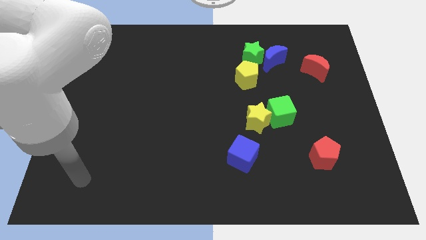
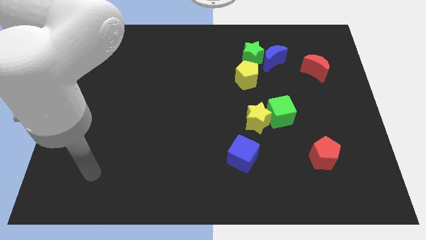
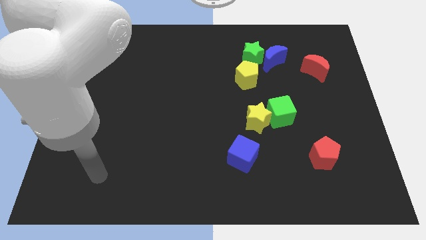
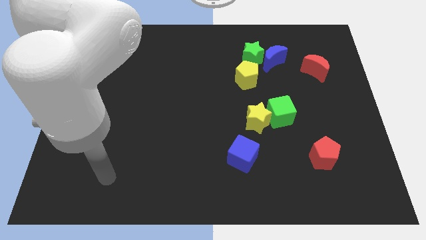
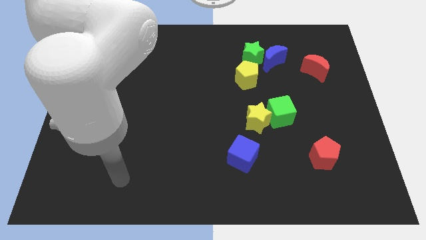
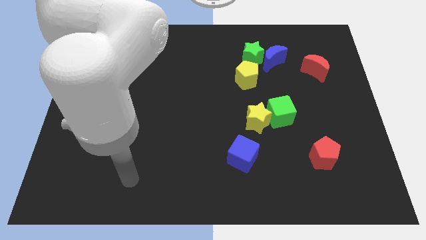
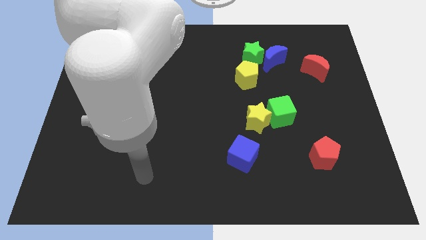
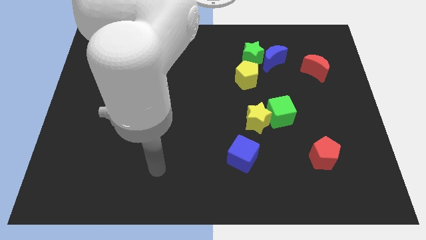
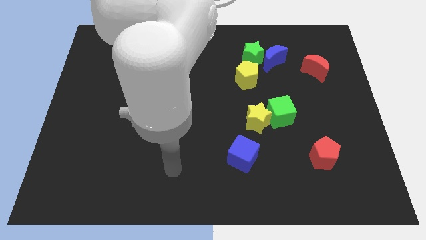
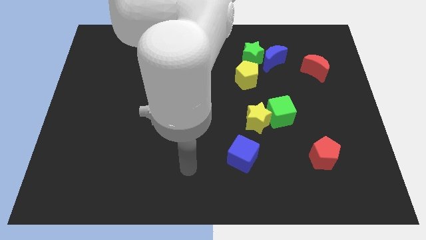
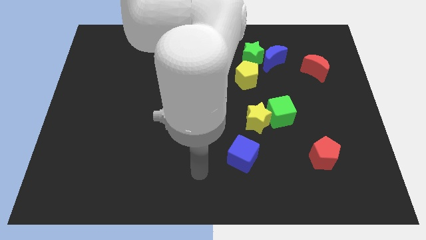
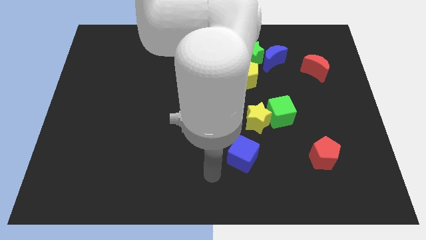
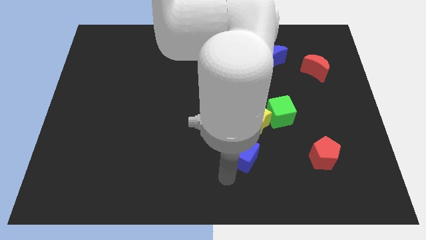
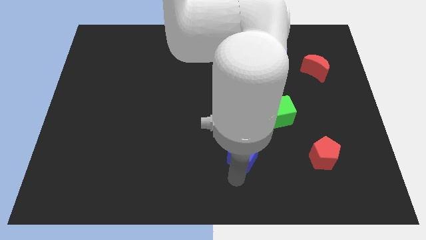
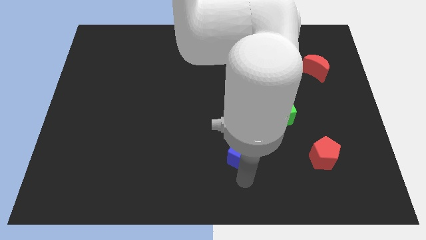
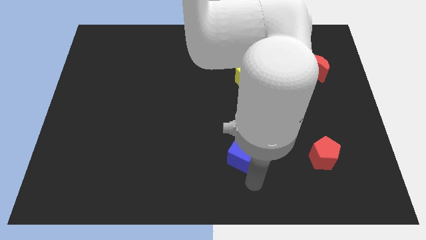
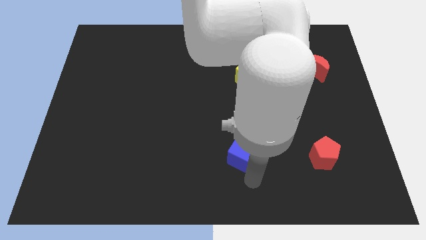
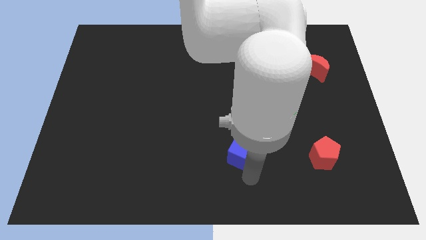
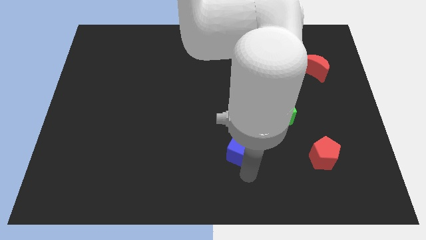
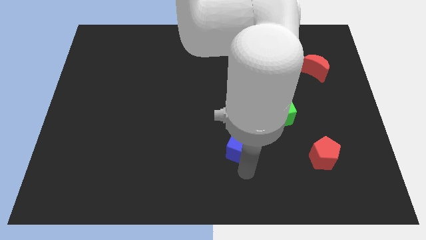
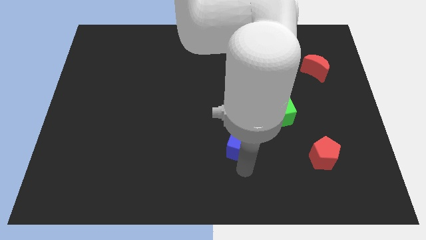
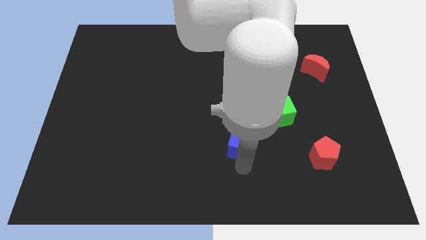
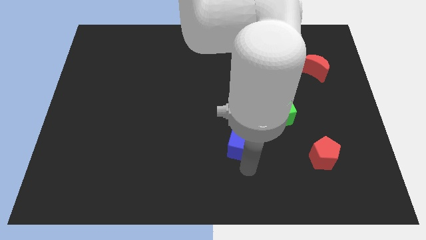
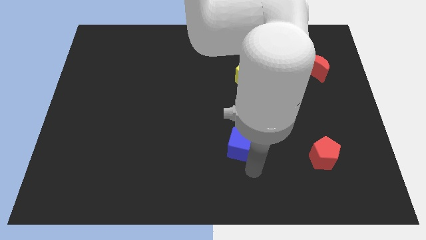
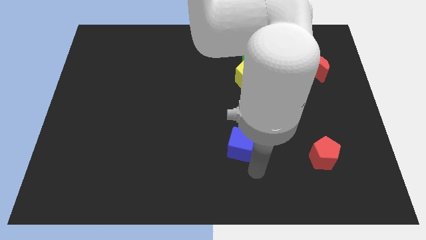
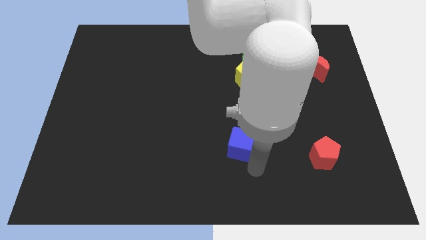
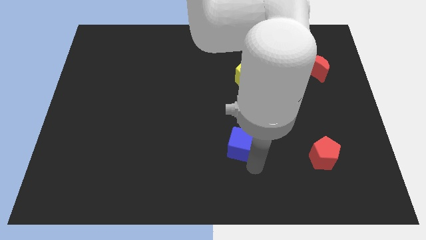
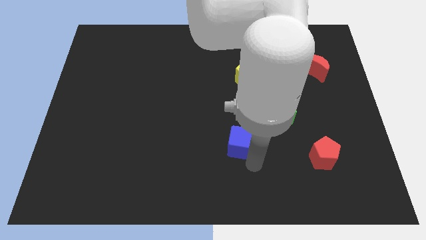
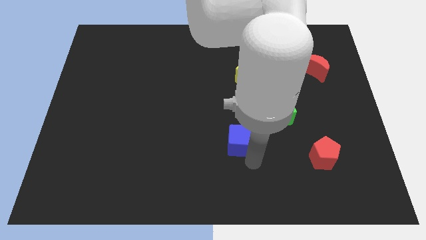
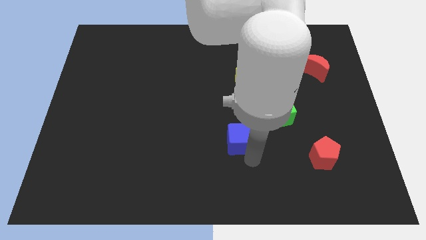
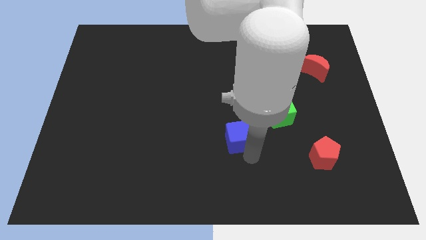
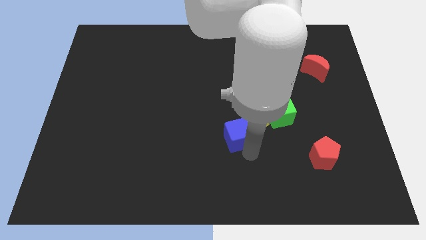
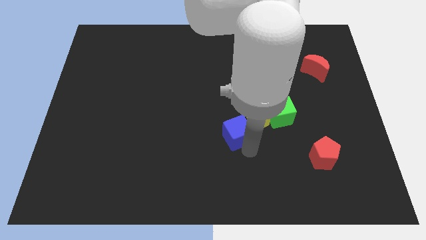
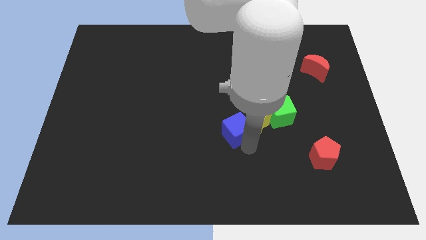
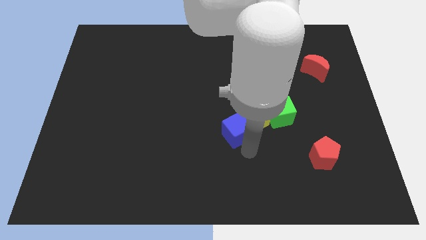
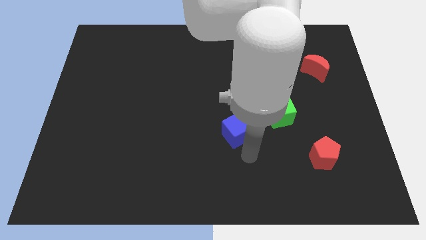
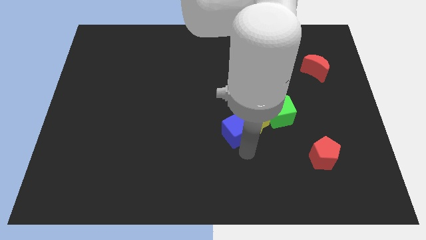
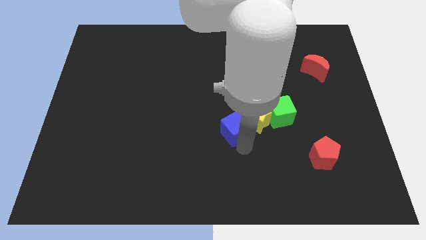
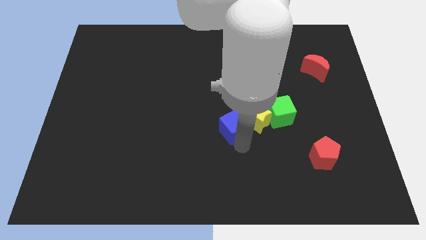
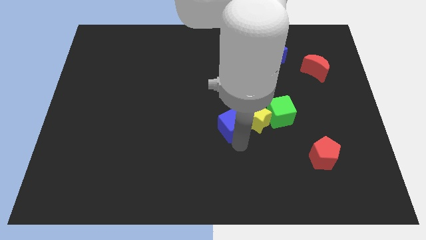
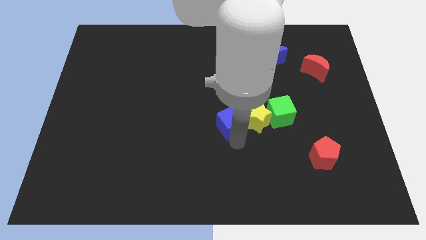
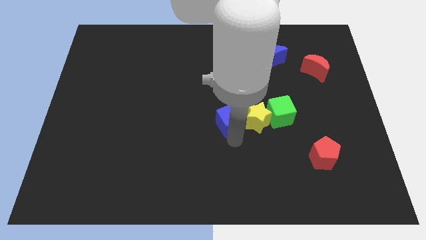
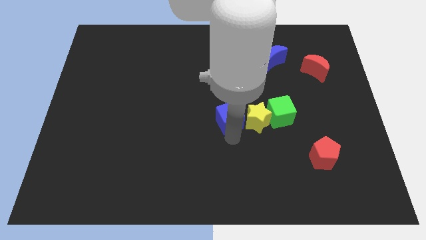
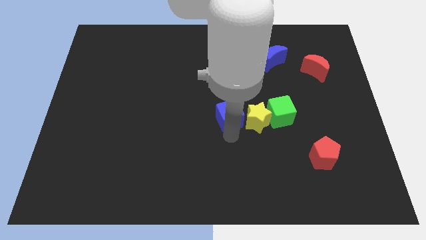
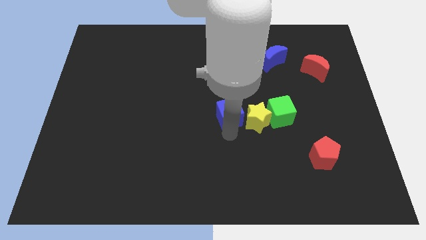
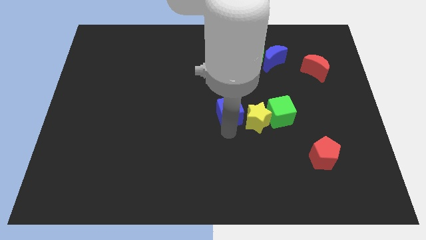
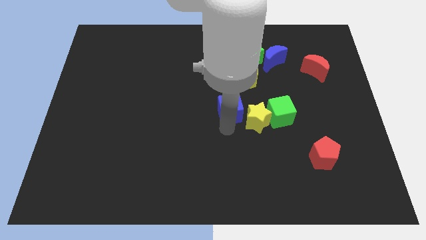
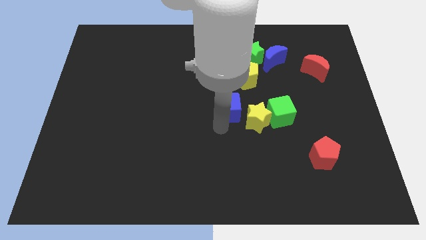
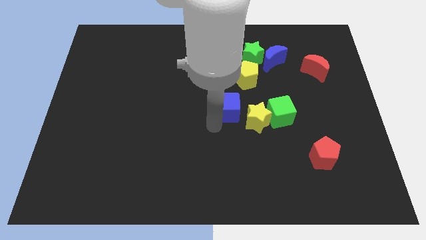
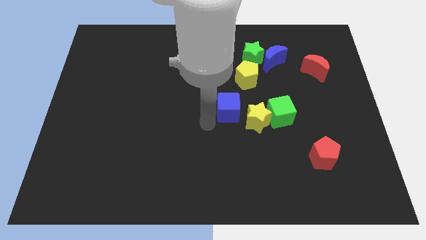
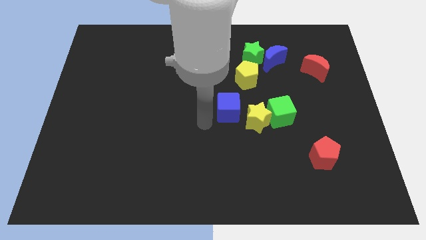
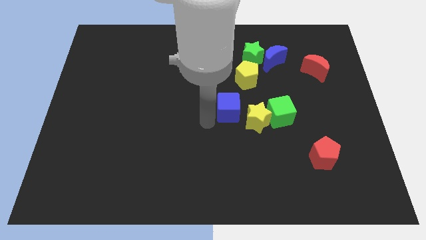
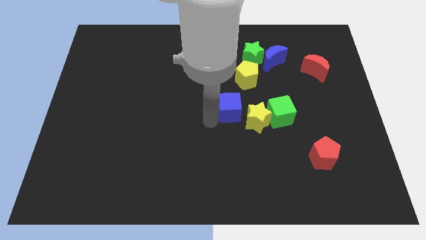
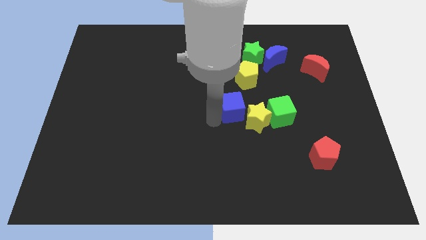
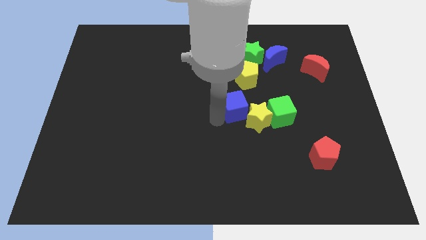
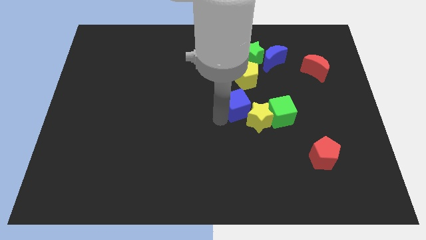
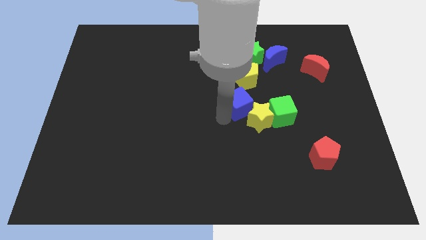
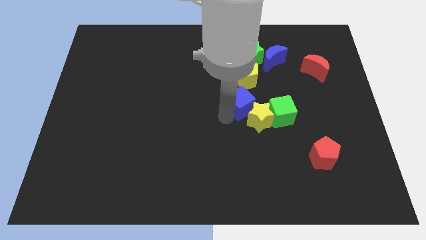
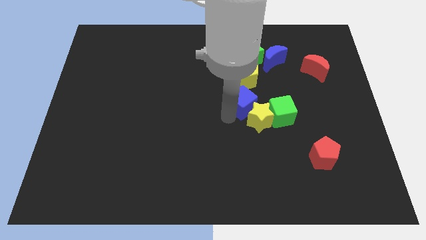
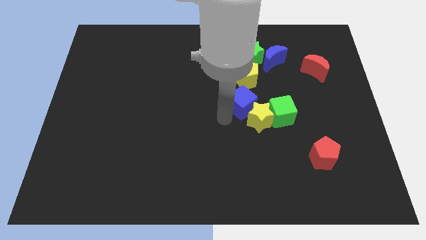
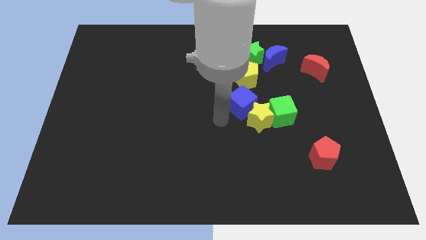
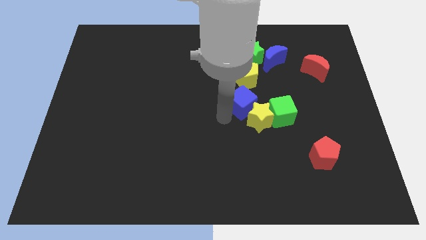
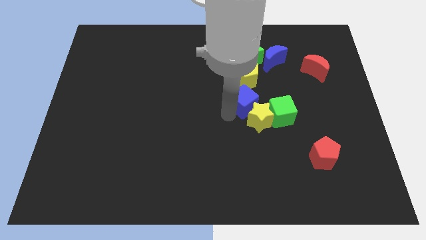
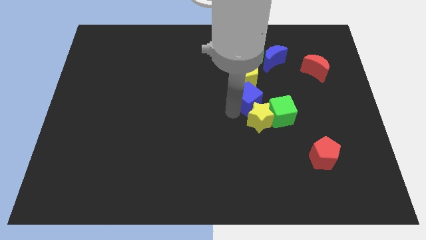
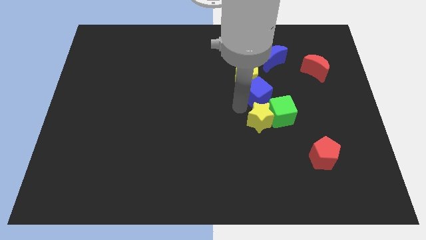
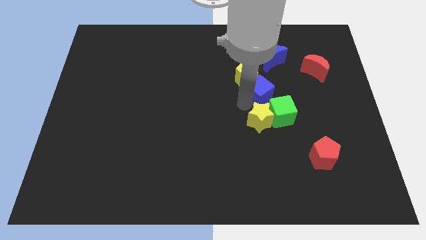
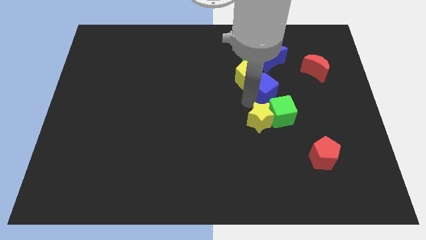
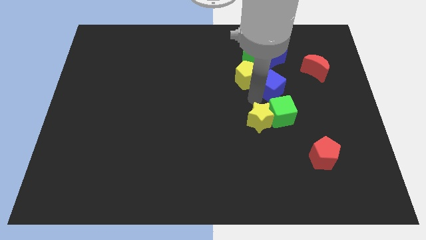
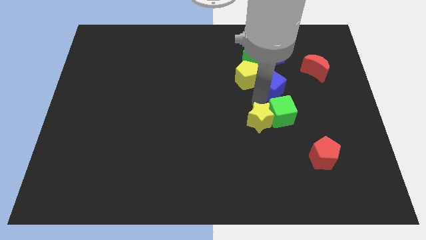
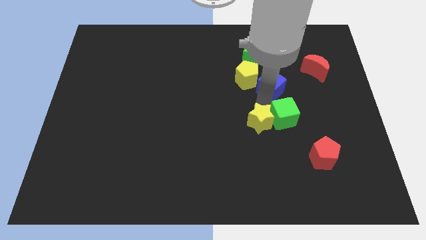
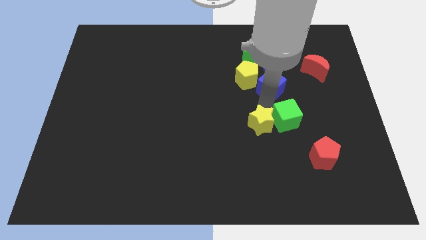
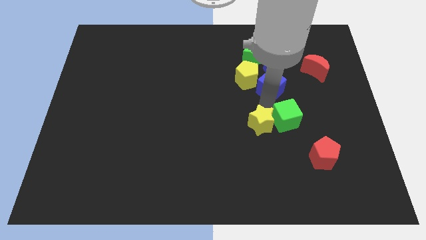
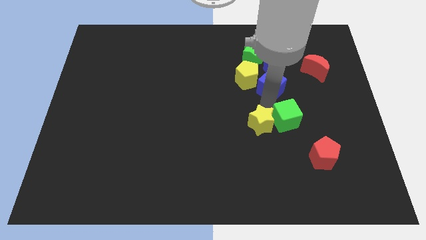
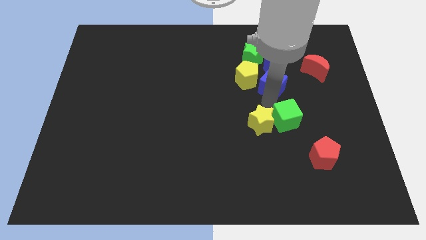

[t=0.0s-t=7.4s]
slide the blue cube to the bottom right of the green star

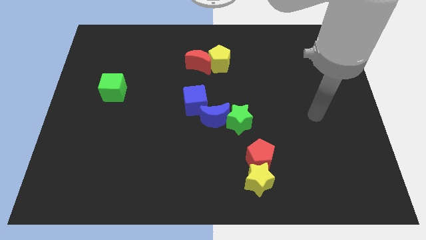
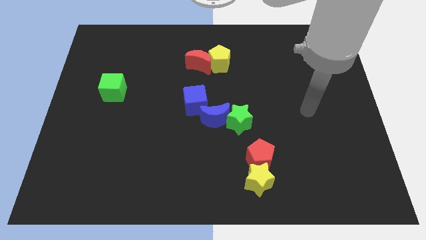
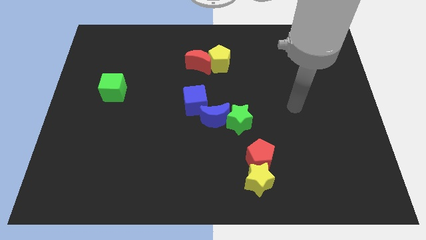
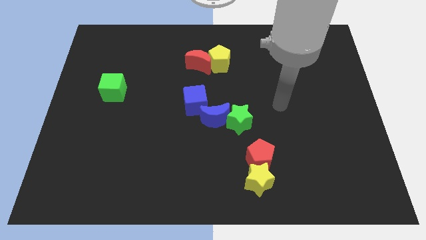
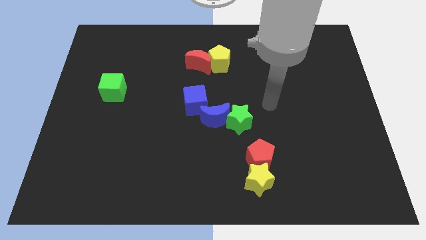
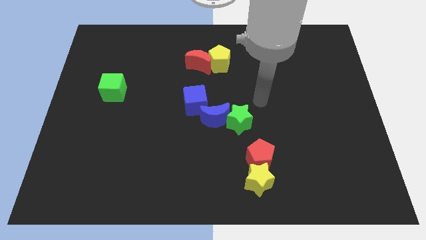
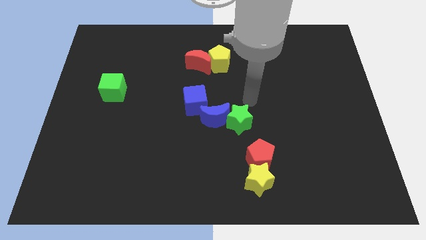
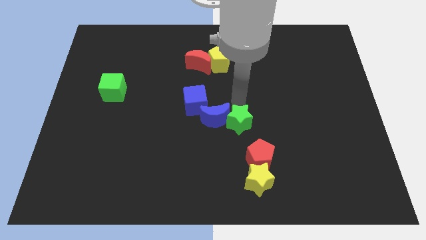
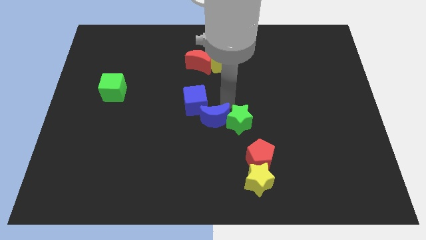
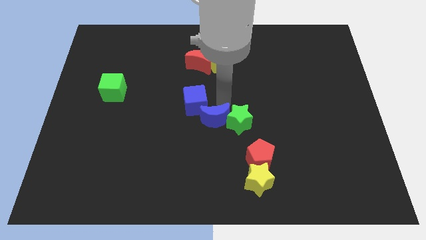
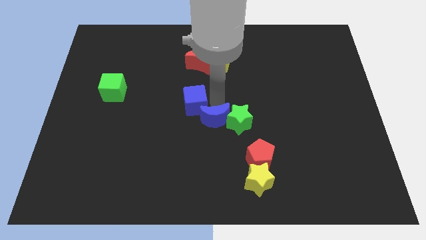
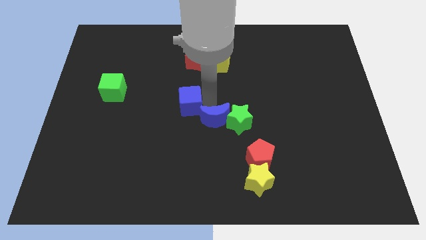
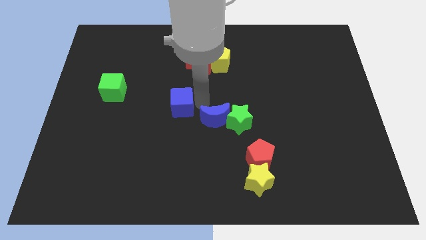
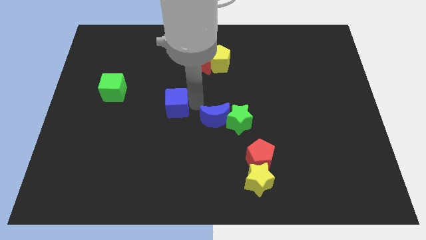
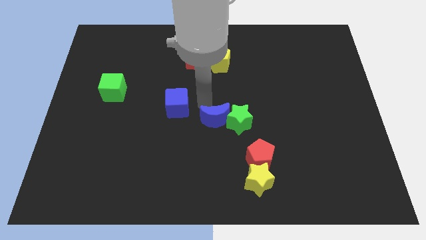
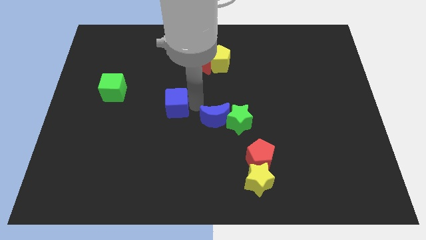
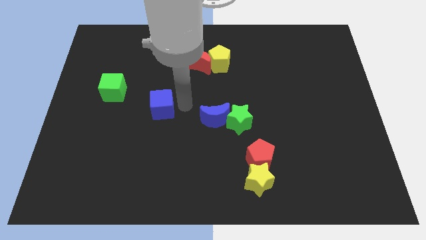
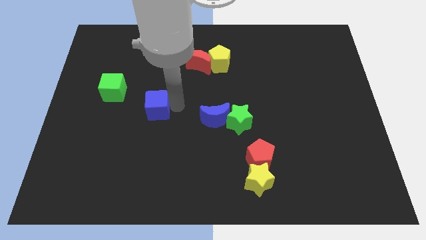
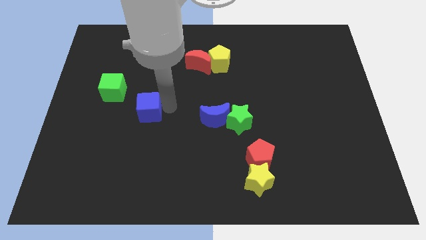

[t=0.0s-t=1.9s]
slide the blue cube to the bottom right side of the green cube
